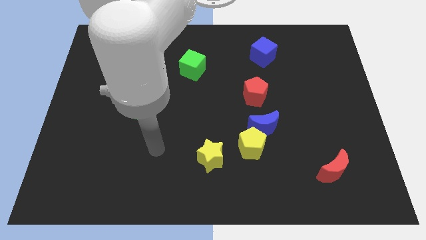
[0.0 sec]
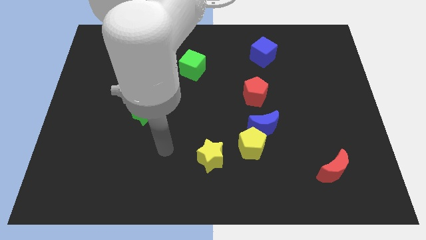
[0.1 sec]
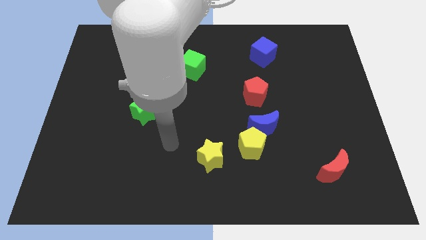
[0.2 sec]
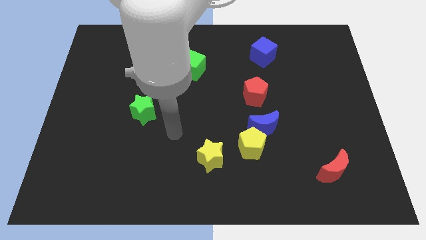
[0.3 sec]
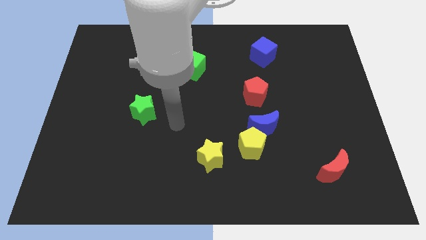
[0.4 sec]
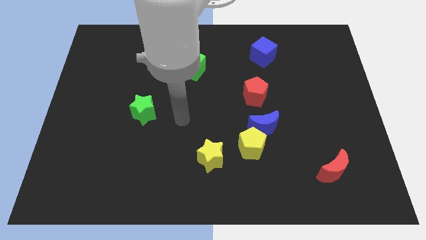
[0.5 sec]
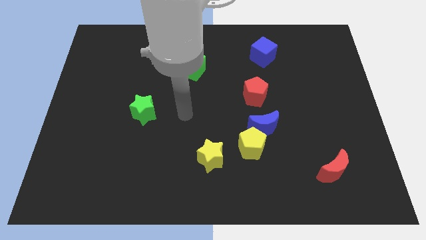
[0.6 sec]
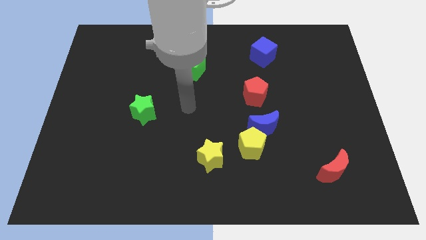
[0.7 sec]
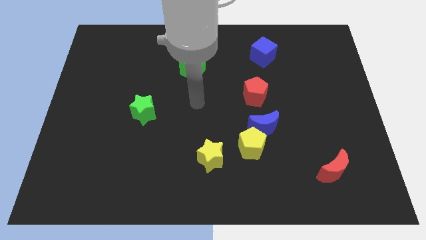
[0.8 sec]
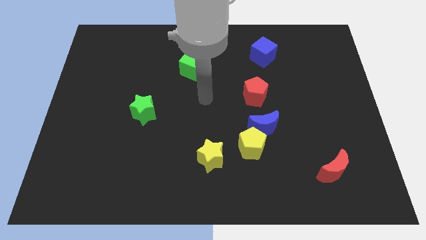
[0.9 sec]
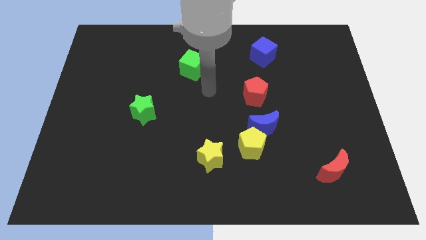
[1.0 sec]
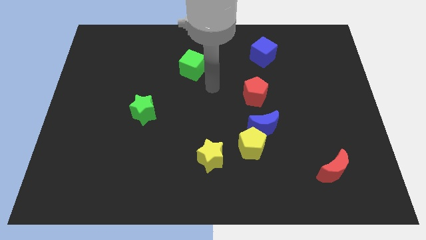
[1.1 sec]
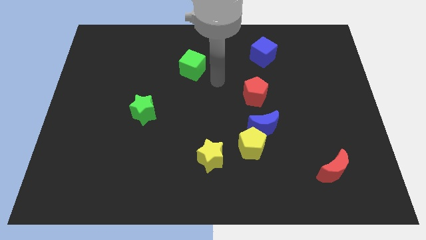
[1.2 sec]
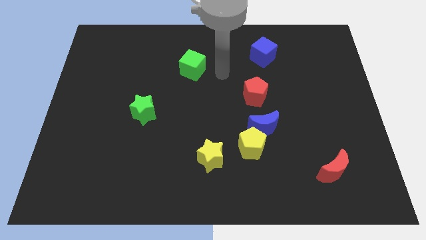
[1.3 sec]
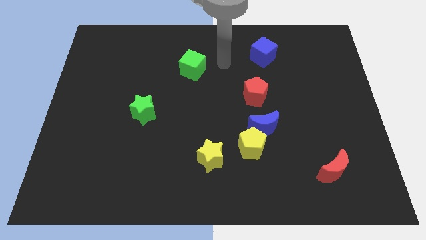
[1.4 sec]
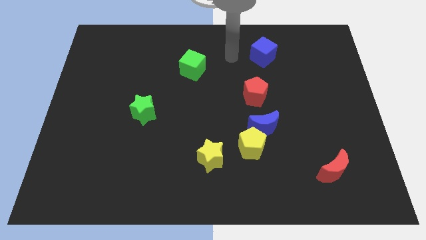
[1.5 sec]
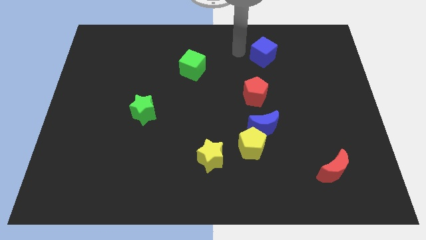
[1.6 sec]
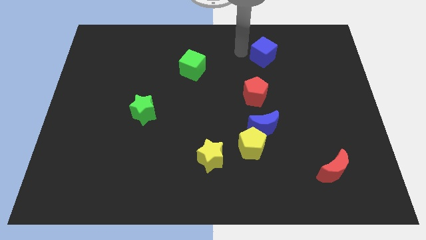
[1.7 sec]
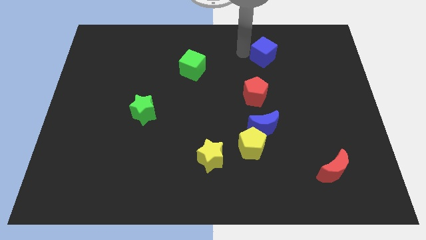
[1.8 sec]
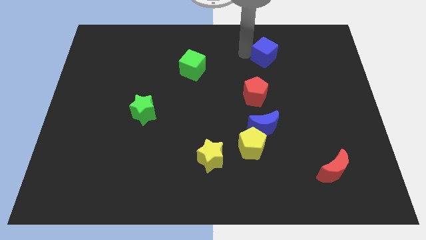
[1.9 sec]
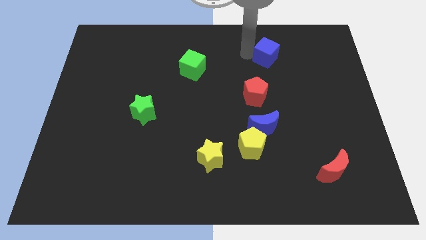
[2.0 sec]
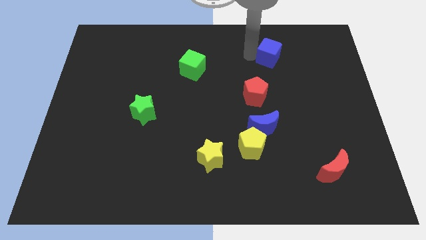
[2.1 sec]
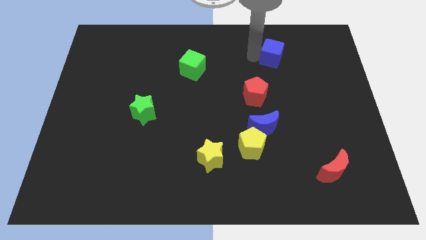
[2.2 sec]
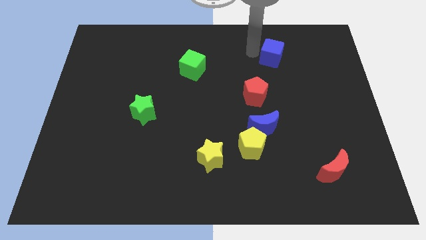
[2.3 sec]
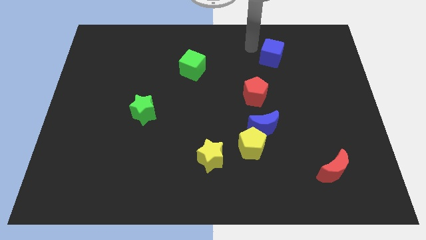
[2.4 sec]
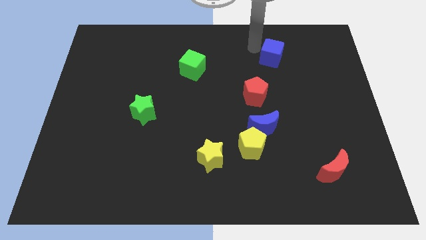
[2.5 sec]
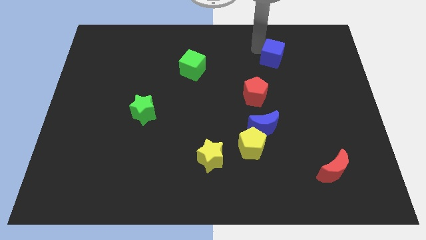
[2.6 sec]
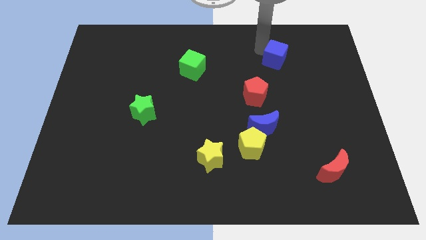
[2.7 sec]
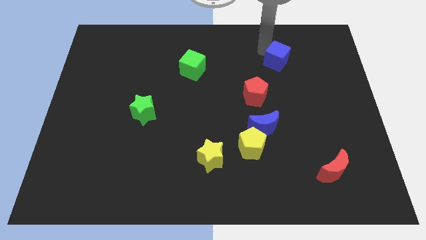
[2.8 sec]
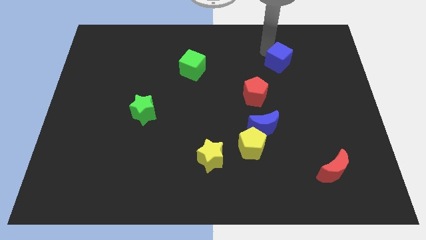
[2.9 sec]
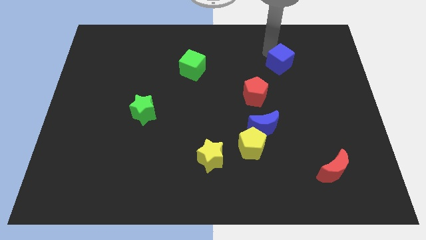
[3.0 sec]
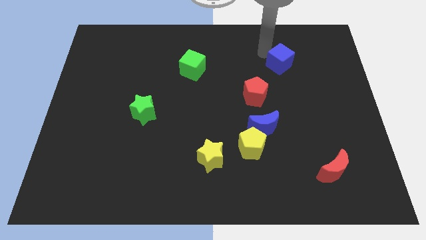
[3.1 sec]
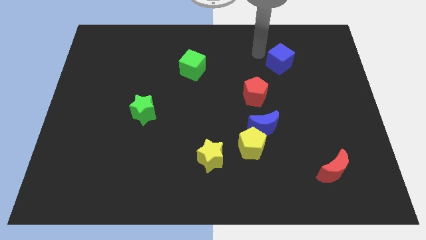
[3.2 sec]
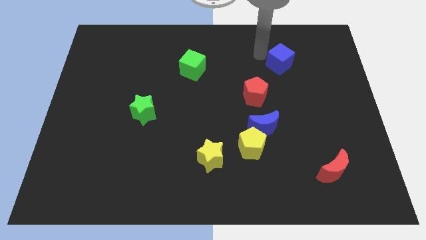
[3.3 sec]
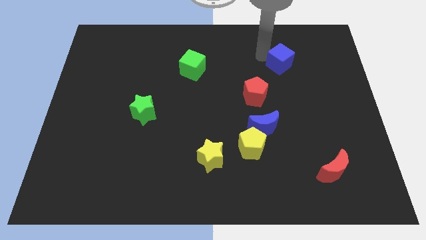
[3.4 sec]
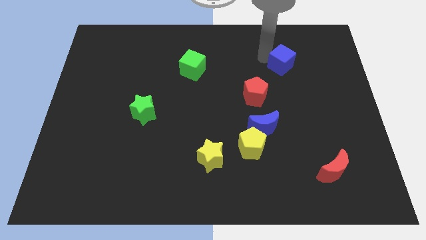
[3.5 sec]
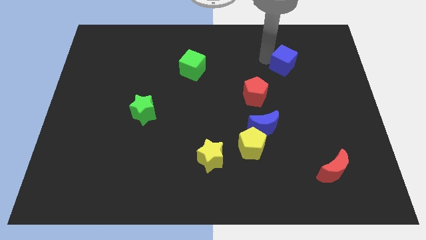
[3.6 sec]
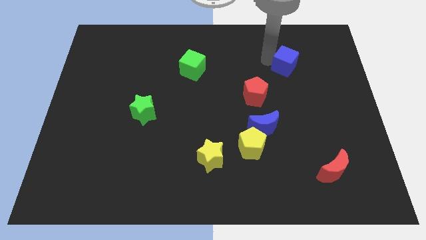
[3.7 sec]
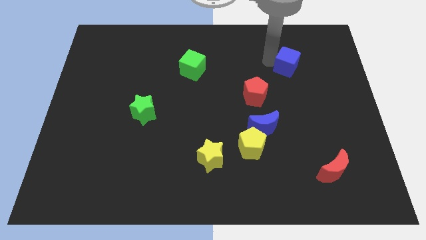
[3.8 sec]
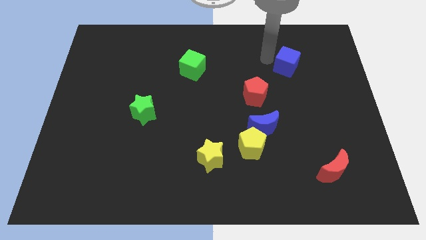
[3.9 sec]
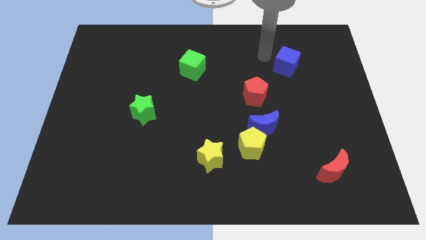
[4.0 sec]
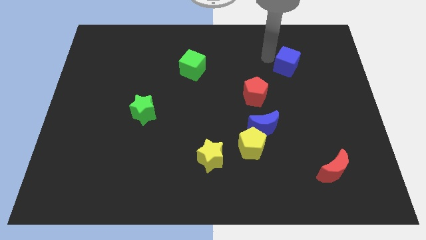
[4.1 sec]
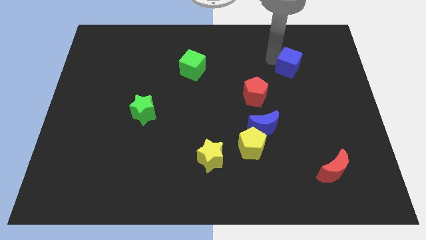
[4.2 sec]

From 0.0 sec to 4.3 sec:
slightly push the blue cube diagonally down and to the right

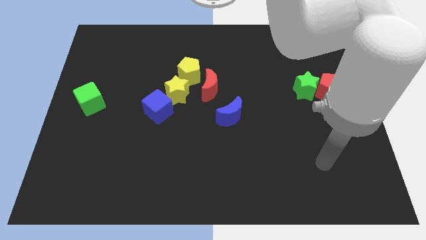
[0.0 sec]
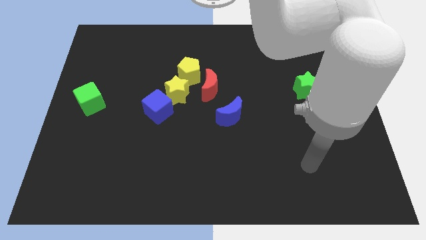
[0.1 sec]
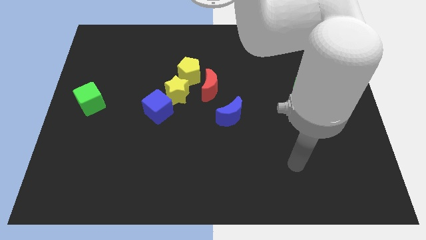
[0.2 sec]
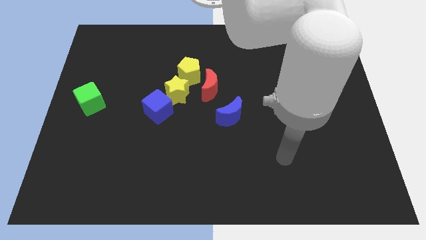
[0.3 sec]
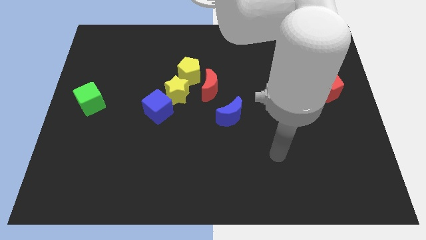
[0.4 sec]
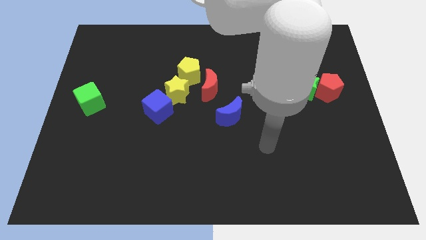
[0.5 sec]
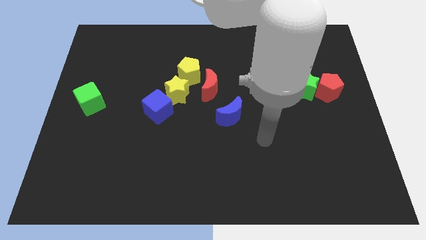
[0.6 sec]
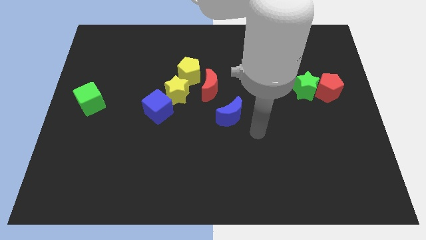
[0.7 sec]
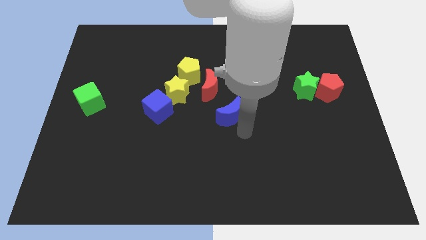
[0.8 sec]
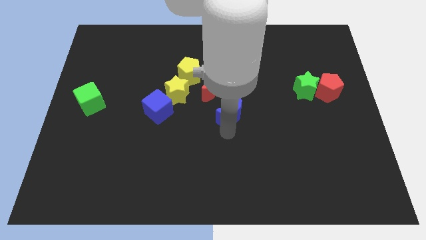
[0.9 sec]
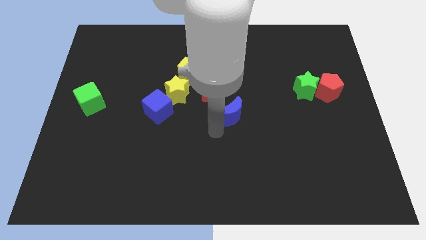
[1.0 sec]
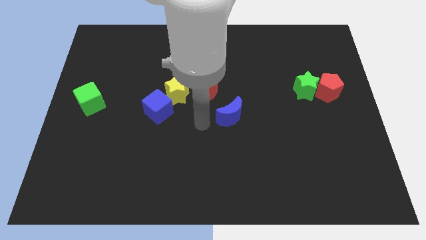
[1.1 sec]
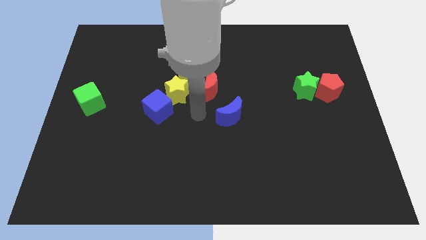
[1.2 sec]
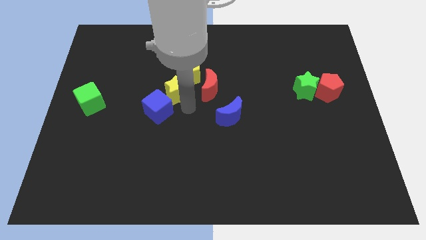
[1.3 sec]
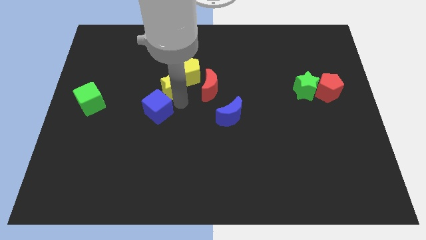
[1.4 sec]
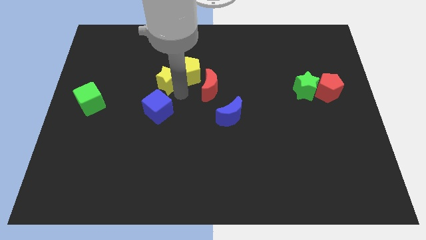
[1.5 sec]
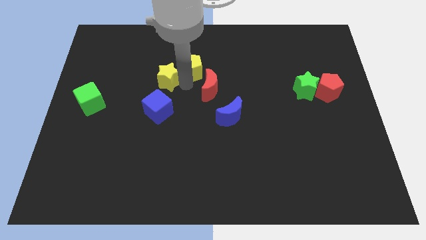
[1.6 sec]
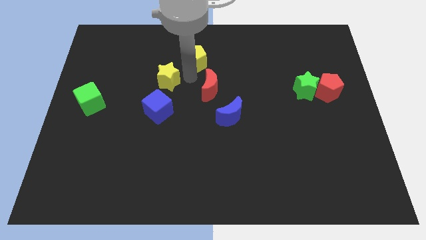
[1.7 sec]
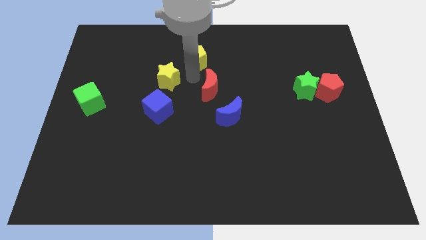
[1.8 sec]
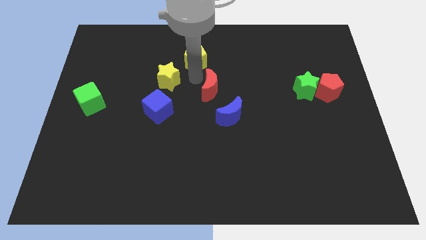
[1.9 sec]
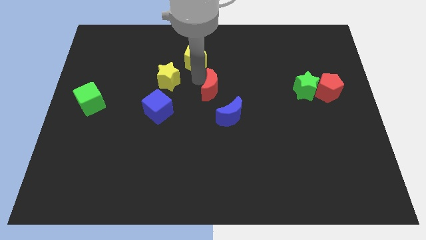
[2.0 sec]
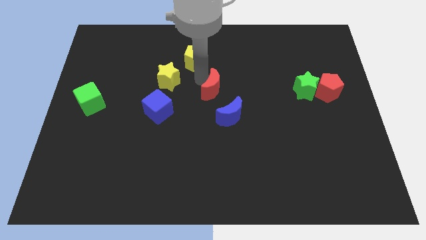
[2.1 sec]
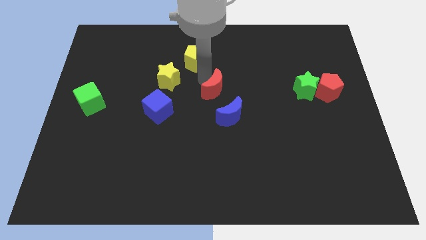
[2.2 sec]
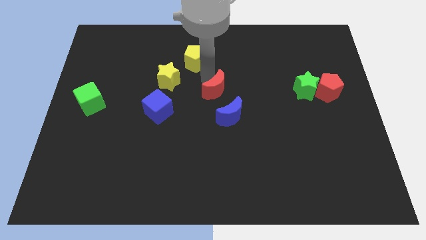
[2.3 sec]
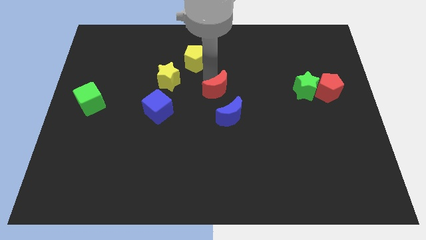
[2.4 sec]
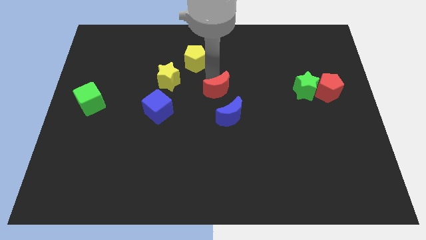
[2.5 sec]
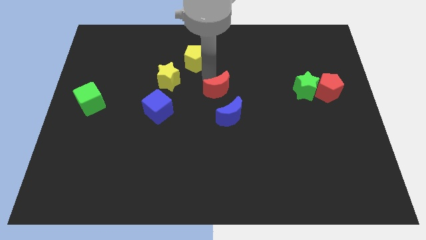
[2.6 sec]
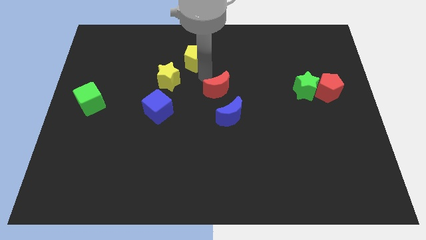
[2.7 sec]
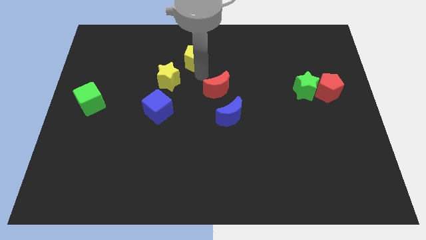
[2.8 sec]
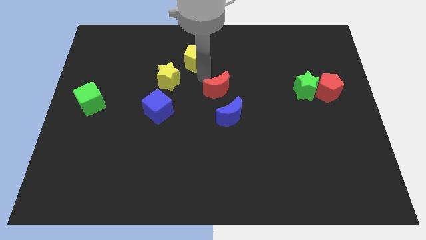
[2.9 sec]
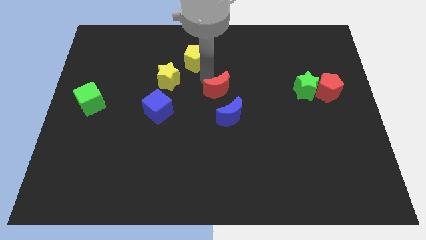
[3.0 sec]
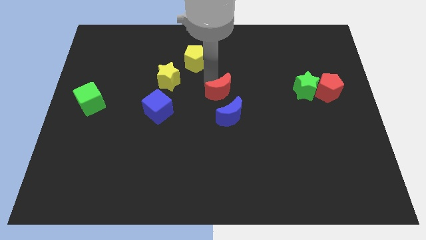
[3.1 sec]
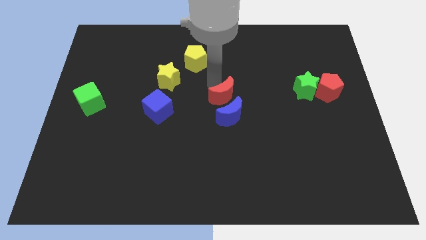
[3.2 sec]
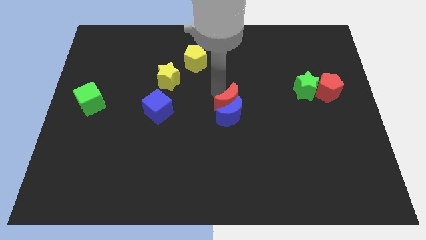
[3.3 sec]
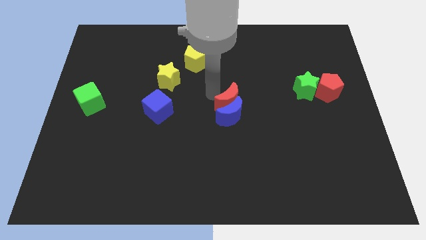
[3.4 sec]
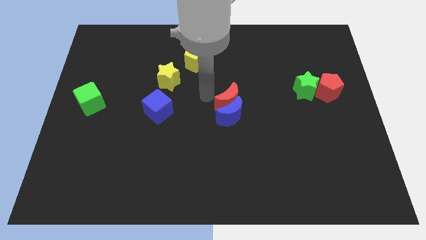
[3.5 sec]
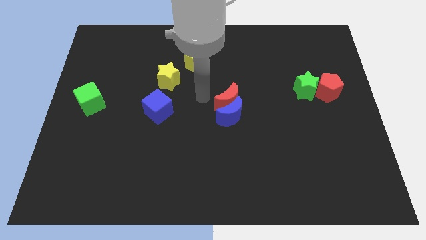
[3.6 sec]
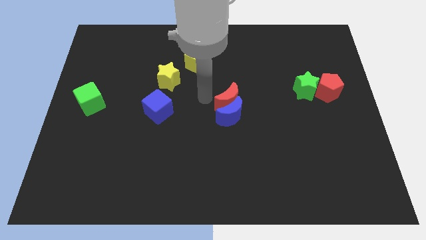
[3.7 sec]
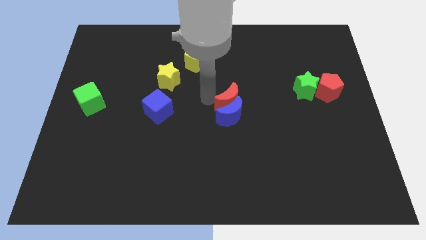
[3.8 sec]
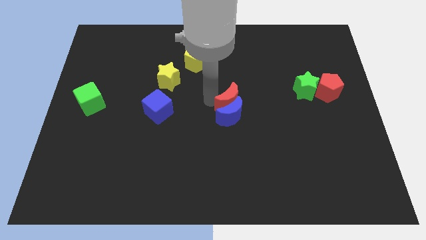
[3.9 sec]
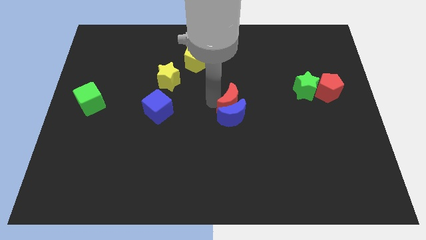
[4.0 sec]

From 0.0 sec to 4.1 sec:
push the red moon diagonally downwards and to the right a bit

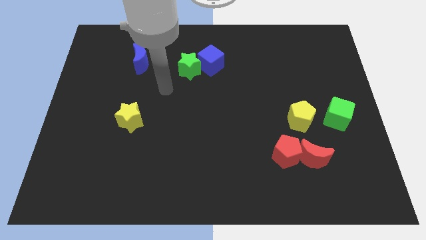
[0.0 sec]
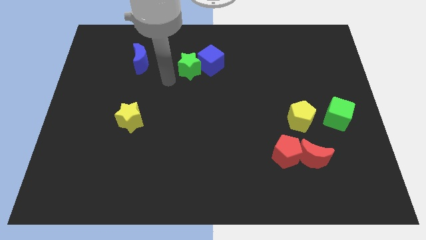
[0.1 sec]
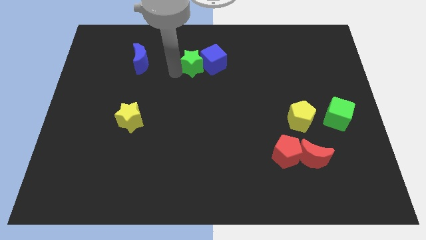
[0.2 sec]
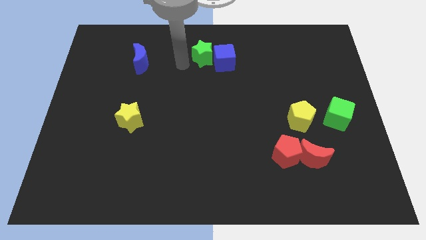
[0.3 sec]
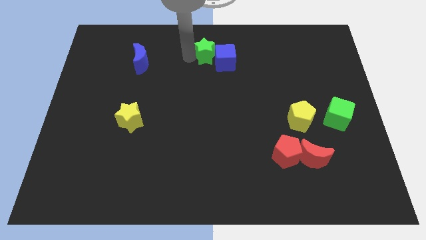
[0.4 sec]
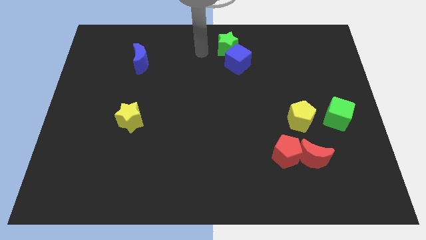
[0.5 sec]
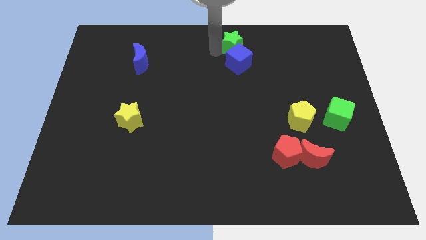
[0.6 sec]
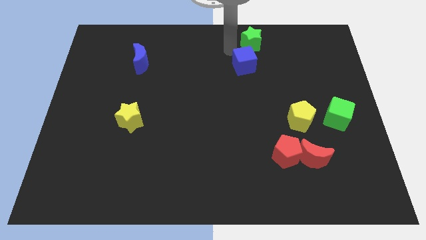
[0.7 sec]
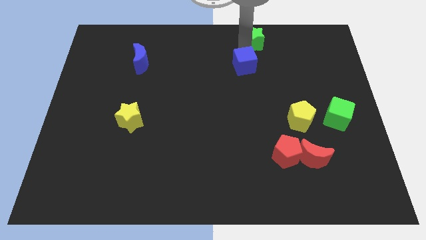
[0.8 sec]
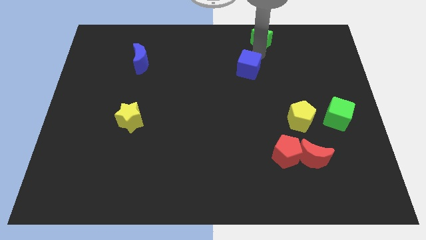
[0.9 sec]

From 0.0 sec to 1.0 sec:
slide the blue cube slightly downwards and then to the right
